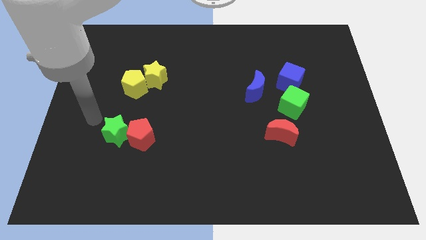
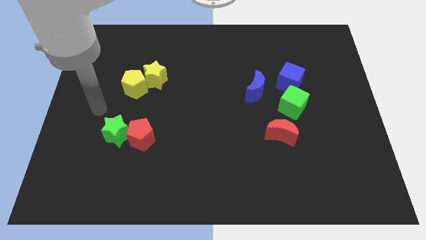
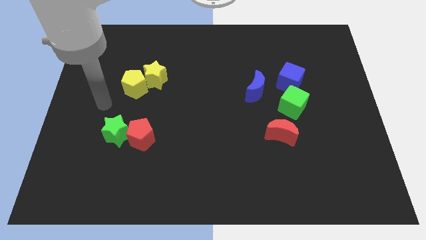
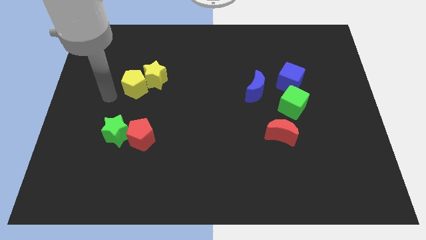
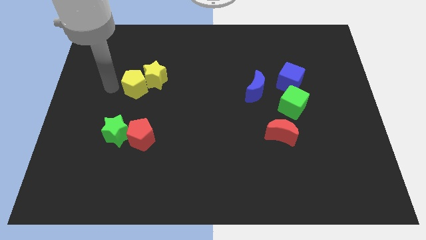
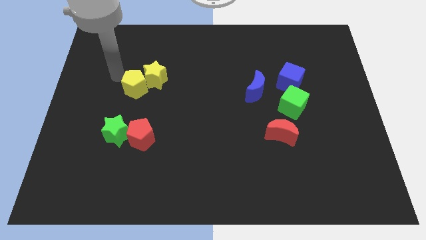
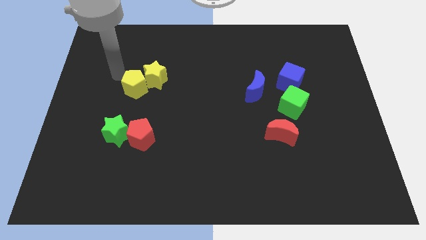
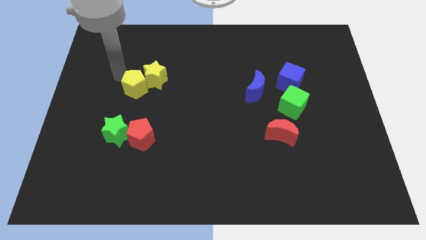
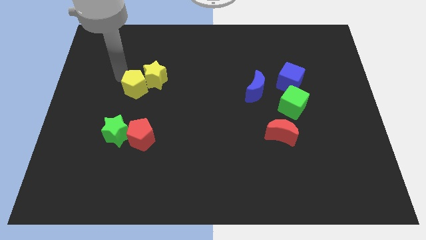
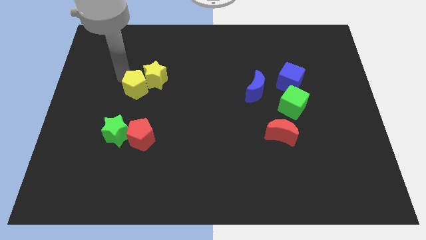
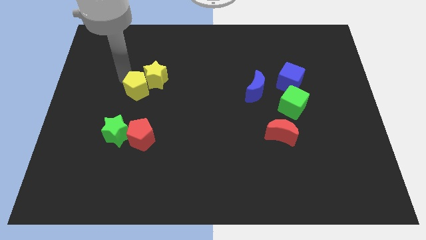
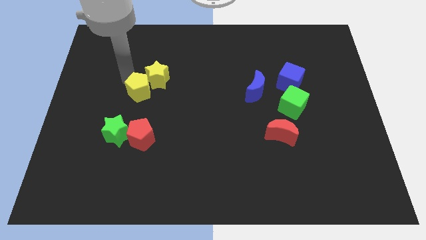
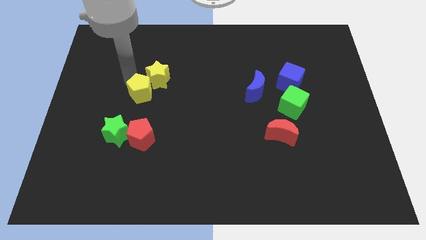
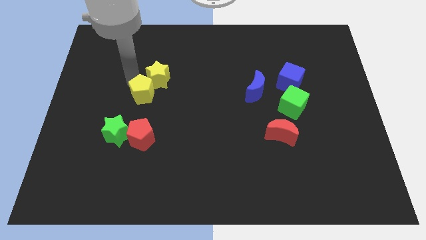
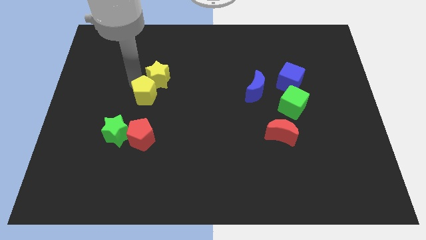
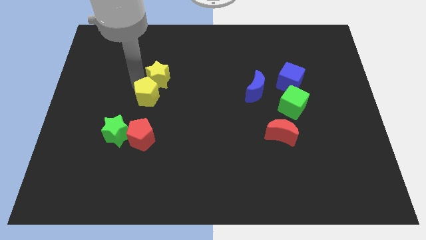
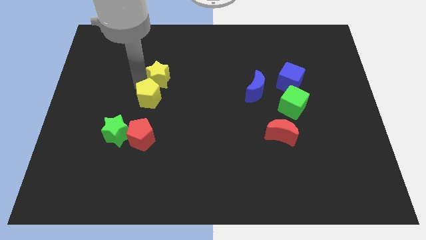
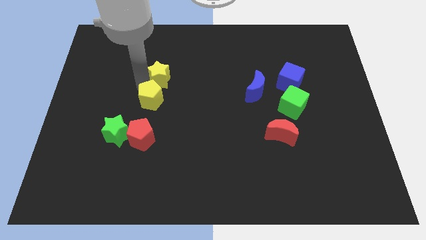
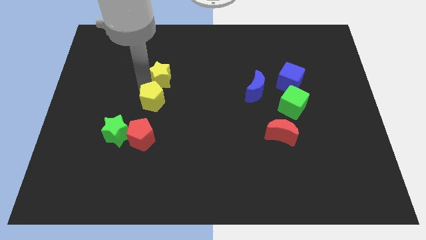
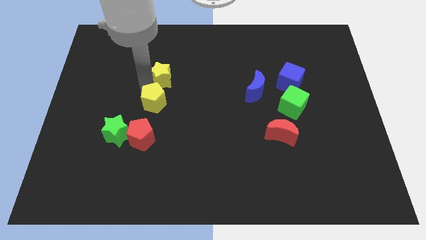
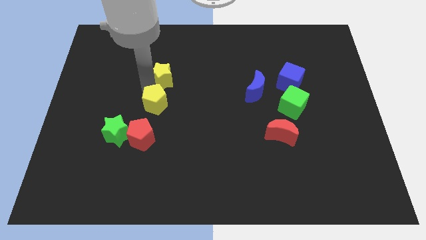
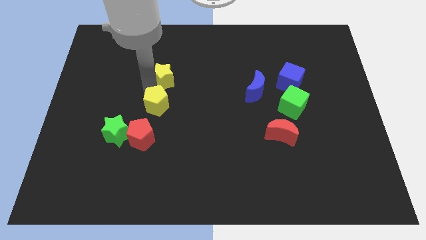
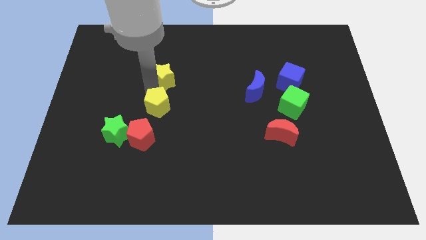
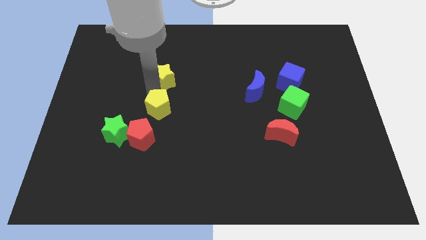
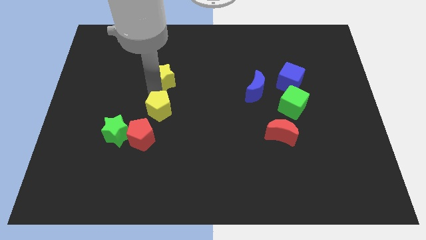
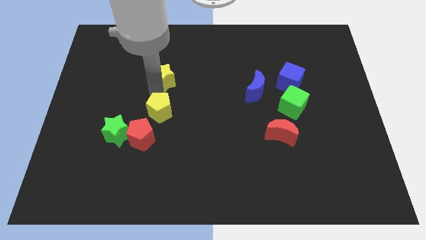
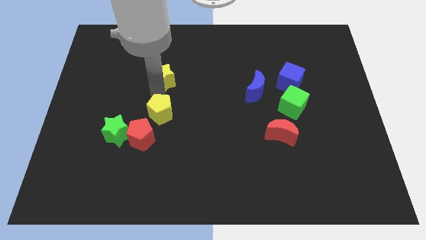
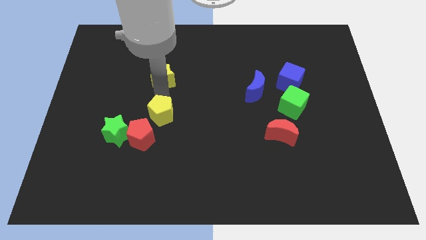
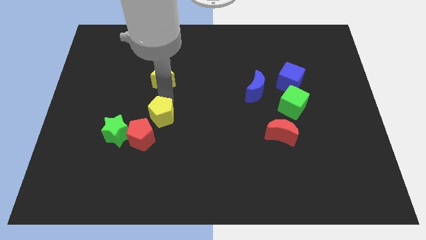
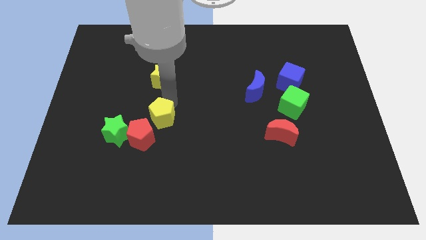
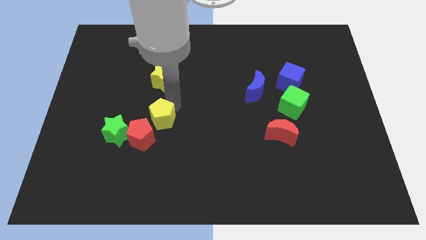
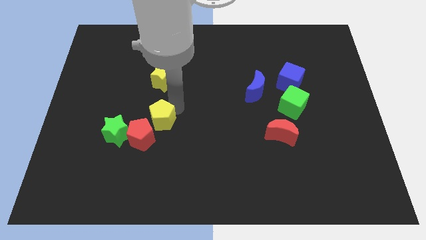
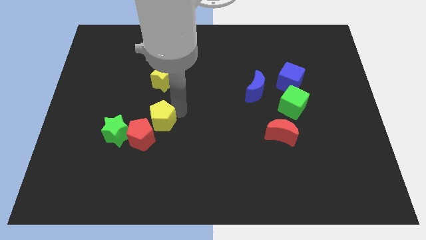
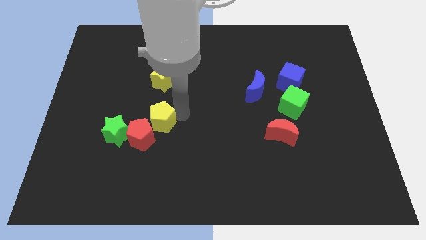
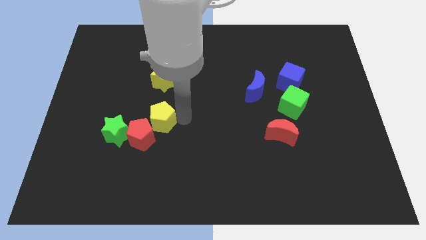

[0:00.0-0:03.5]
push the yellow pentagon to the red pentagon

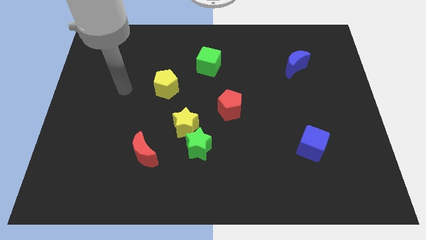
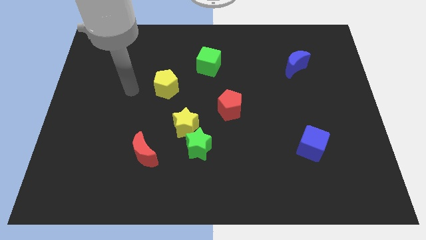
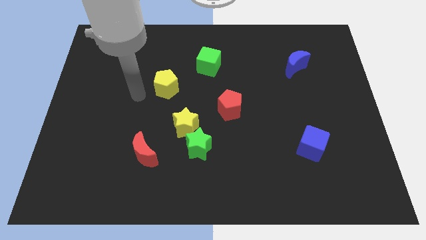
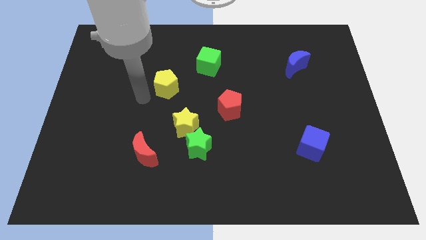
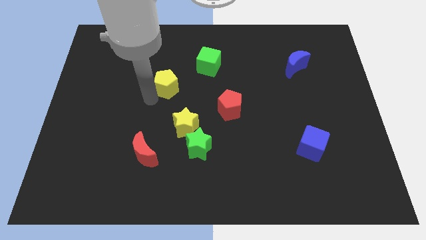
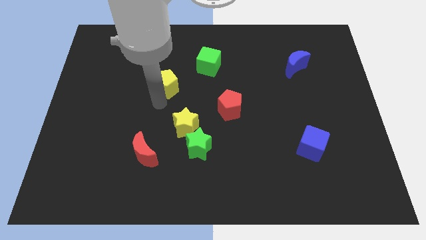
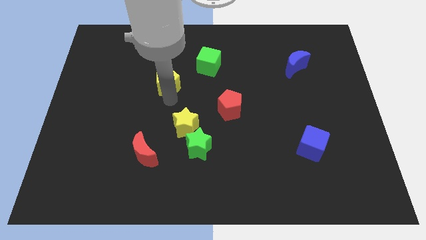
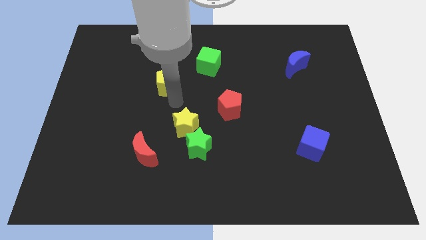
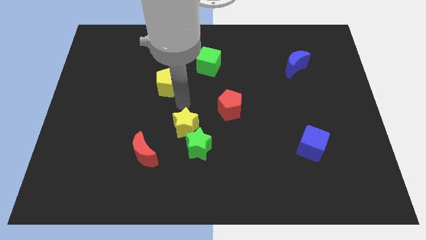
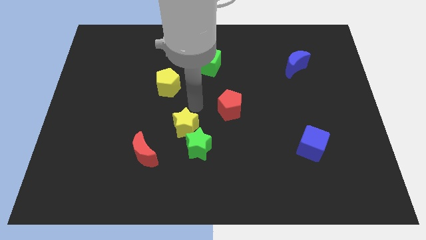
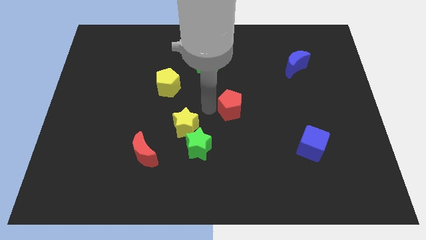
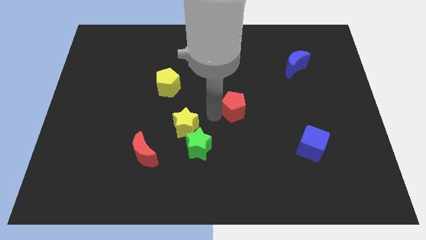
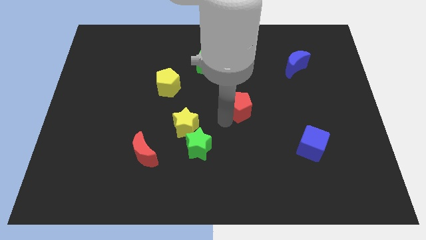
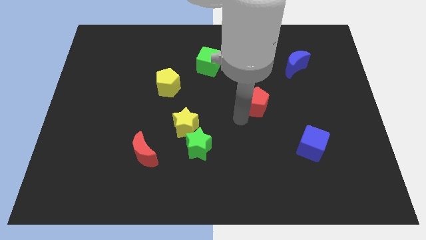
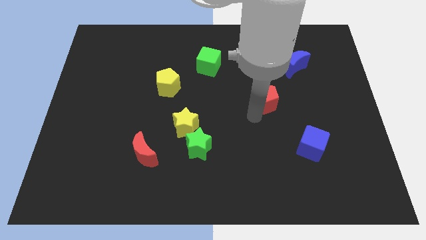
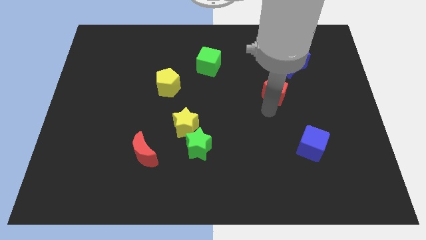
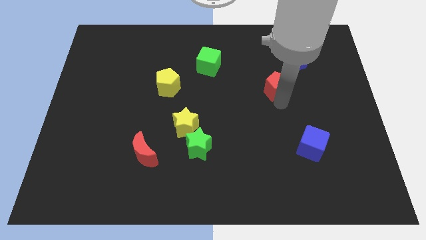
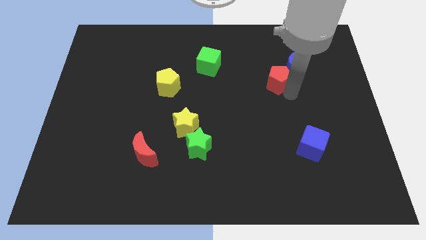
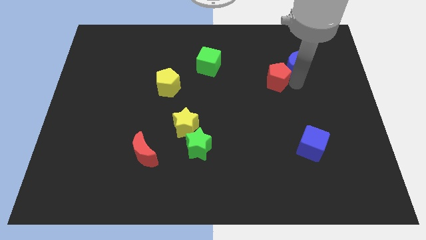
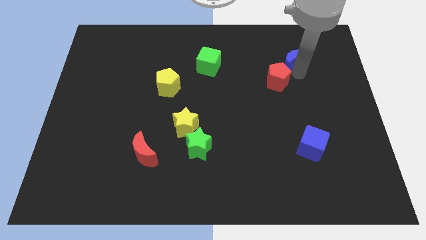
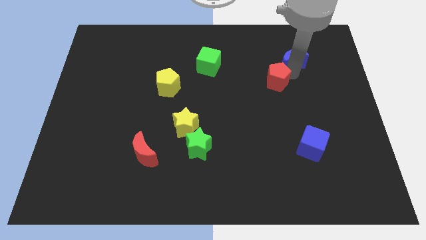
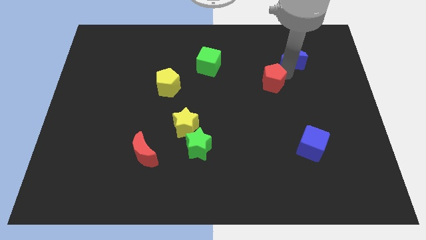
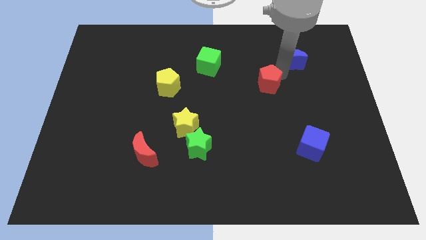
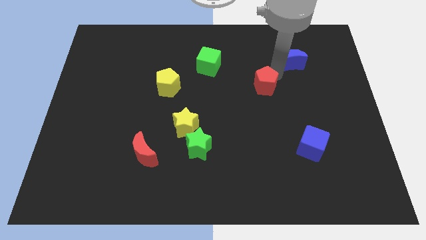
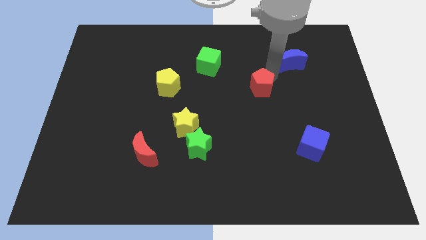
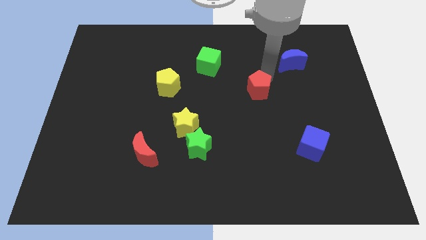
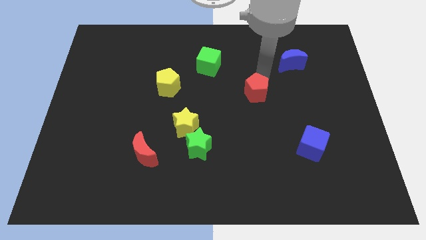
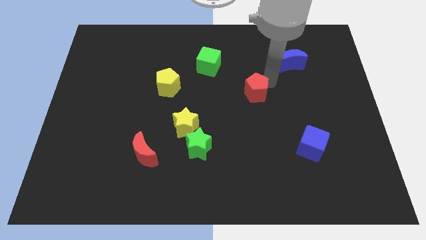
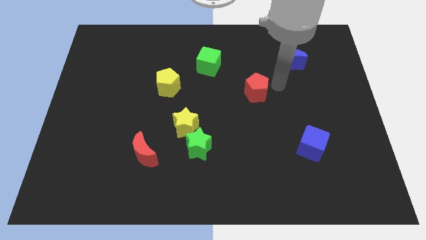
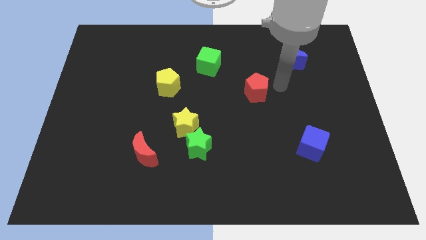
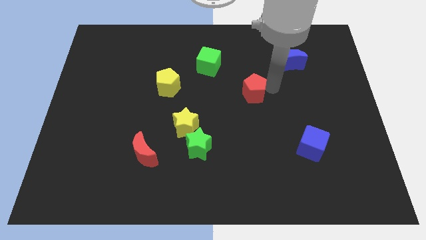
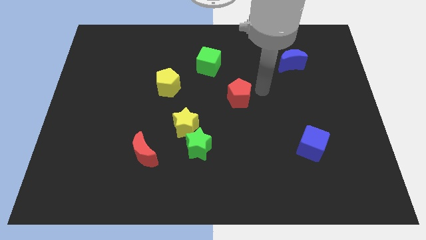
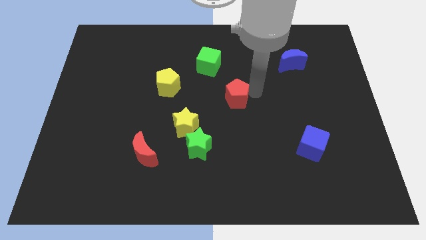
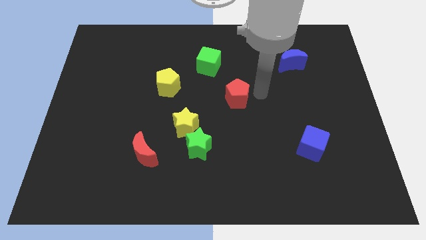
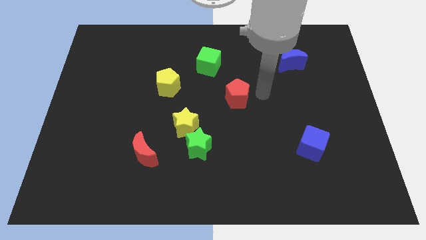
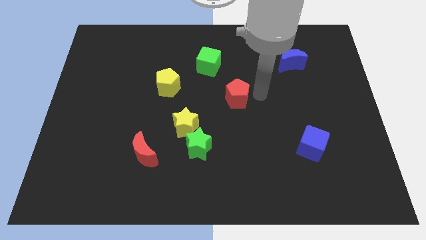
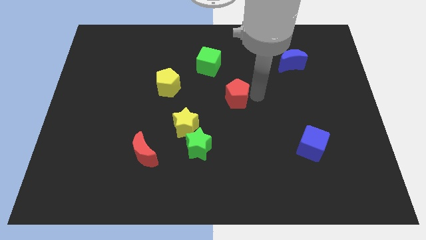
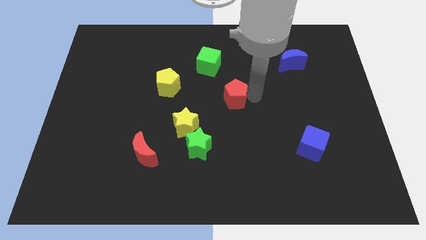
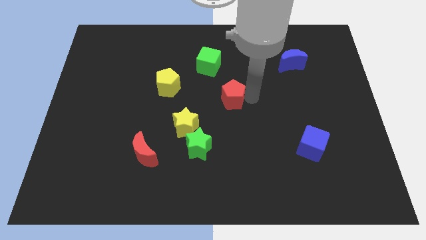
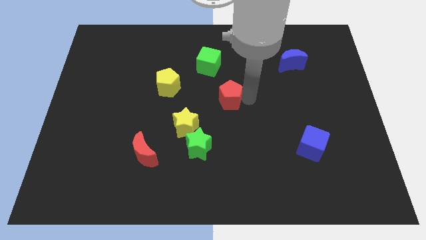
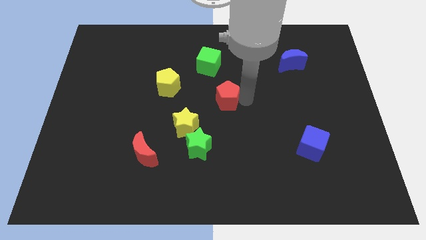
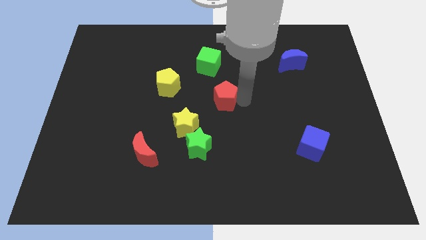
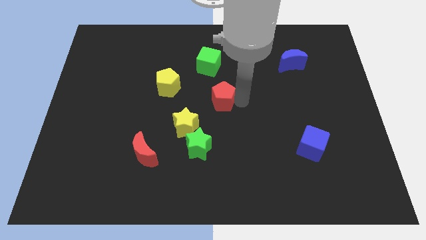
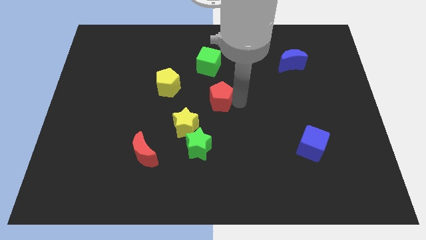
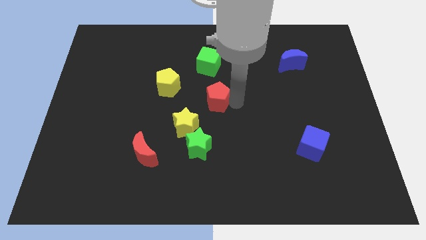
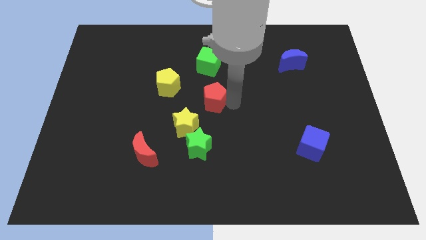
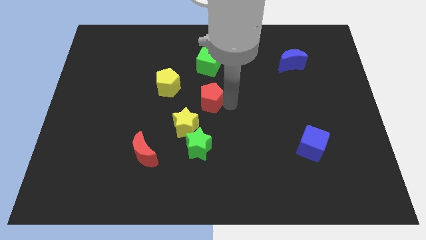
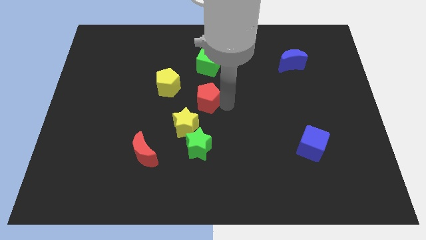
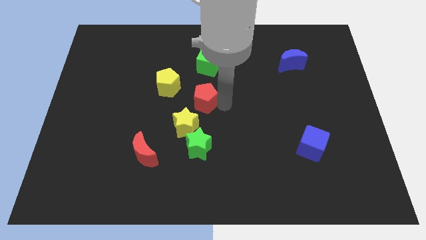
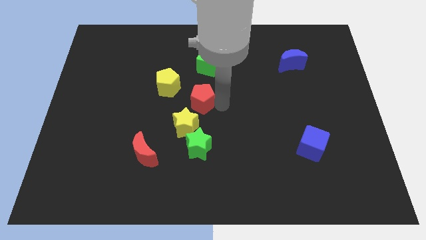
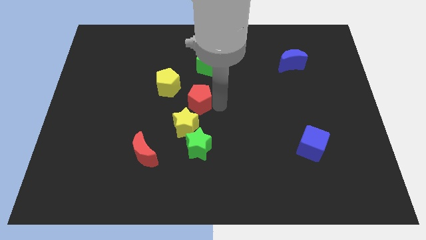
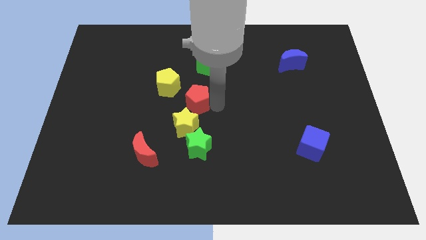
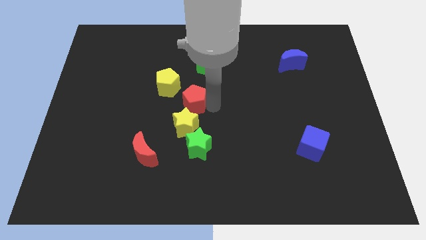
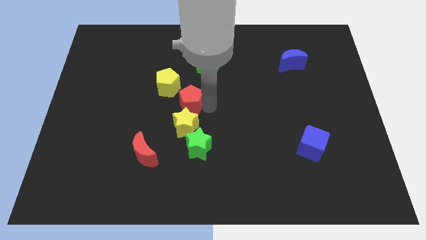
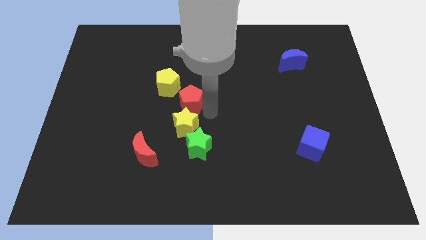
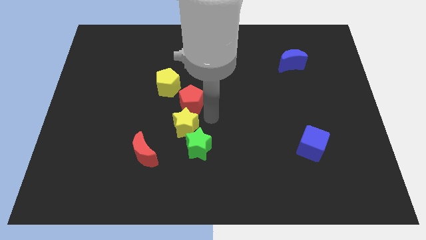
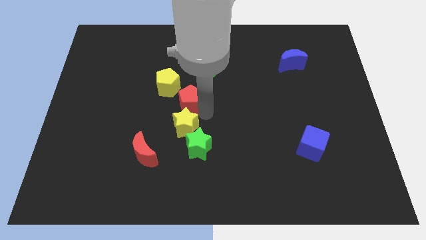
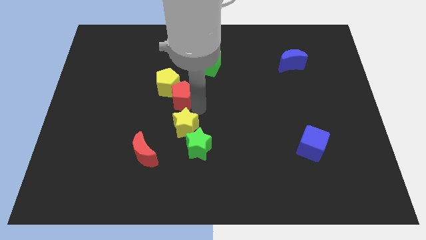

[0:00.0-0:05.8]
put the red pentagon next to the yellow pentagon
